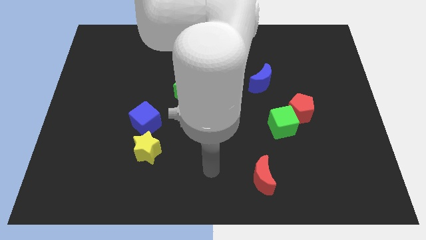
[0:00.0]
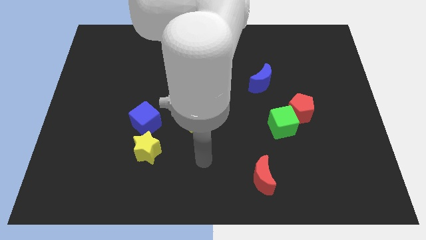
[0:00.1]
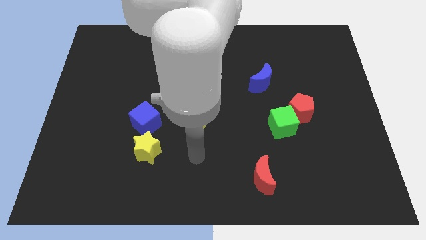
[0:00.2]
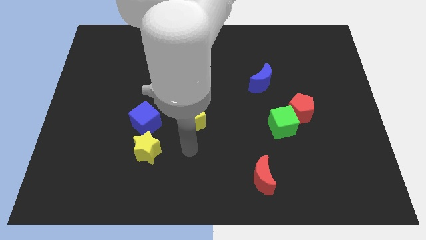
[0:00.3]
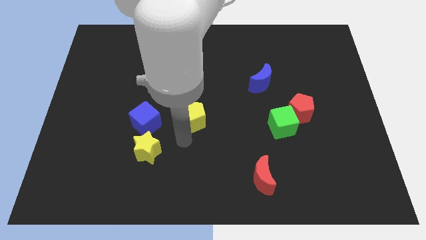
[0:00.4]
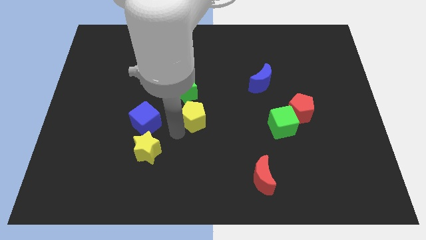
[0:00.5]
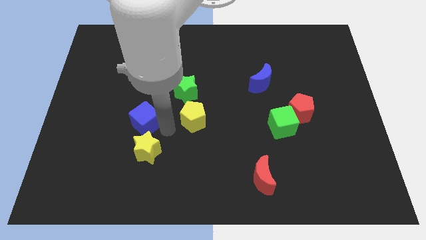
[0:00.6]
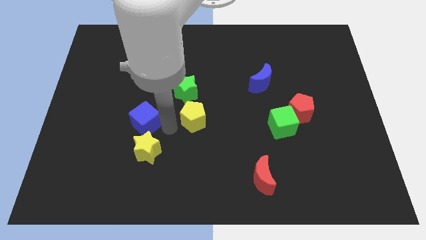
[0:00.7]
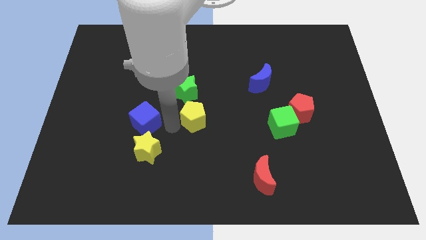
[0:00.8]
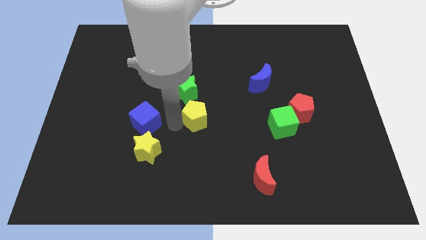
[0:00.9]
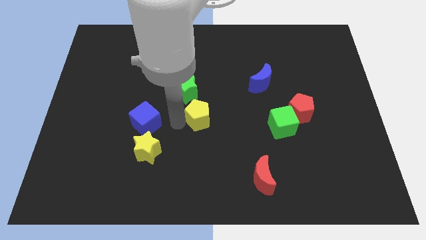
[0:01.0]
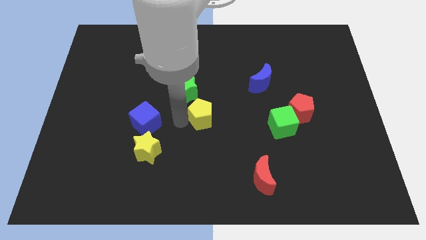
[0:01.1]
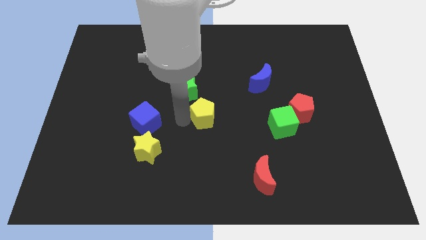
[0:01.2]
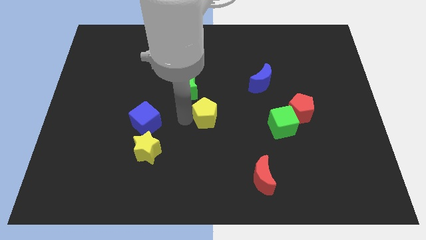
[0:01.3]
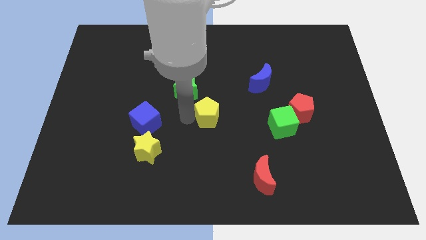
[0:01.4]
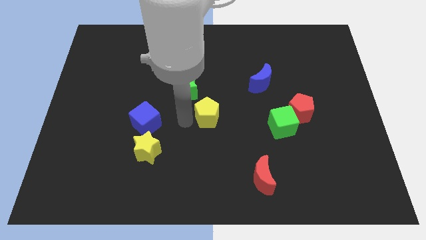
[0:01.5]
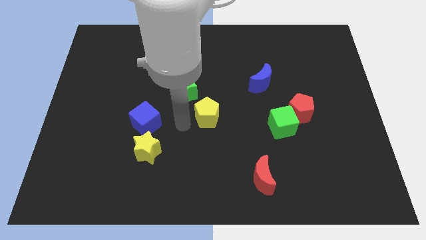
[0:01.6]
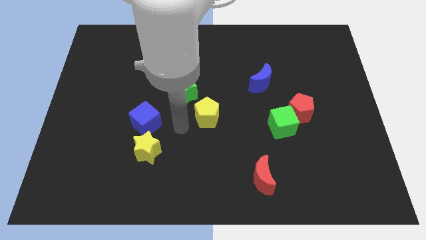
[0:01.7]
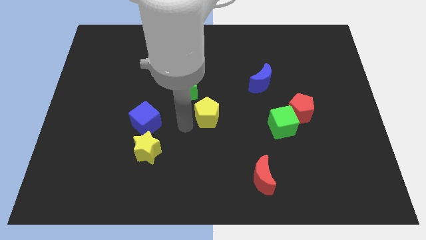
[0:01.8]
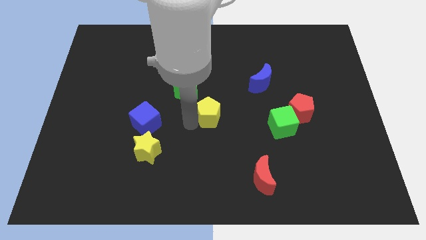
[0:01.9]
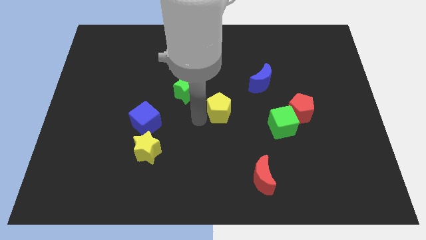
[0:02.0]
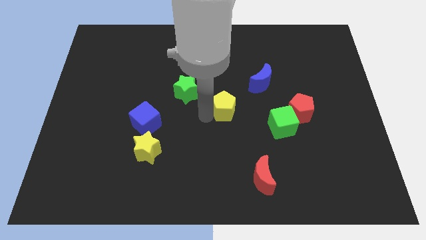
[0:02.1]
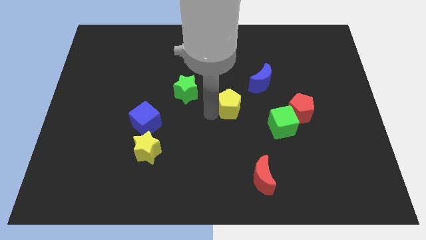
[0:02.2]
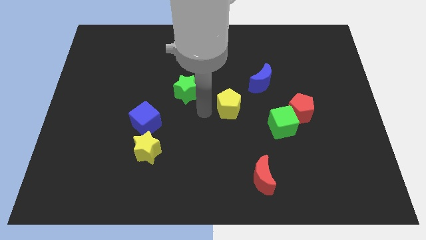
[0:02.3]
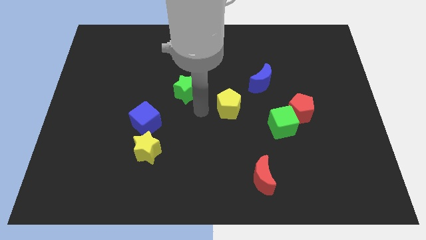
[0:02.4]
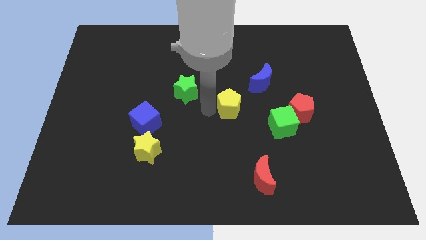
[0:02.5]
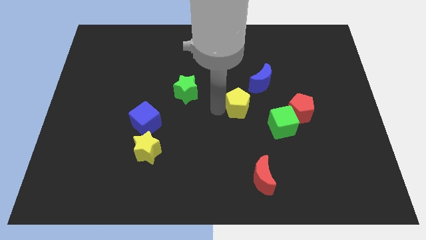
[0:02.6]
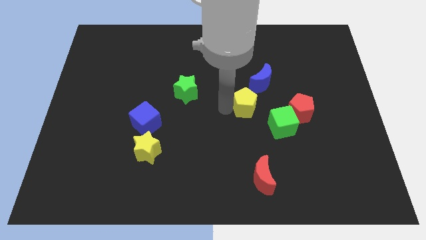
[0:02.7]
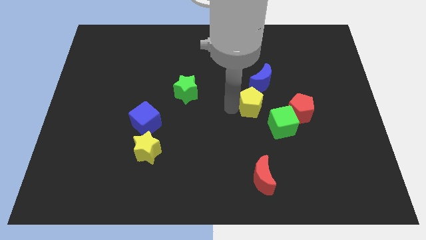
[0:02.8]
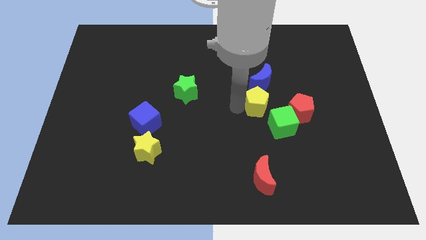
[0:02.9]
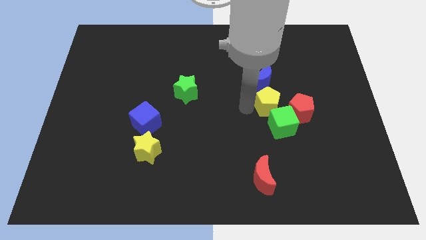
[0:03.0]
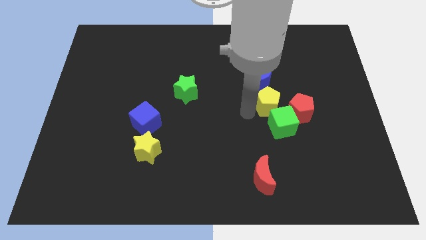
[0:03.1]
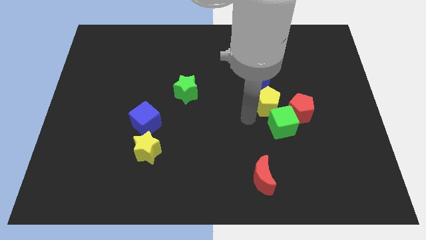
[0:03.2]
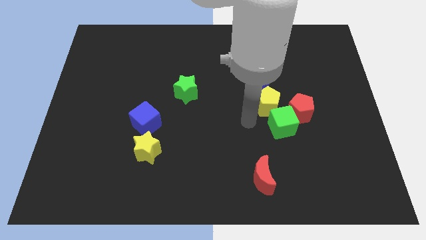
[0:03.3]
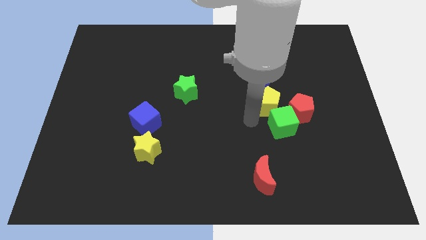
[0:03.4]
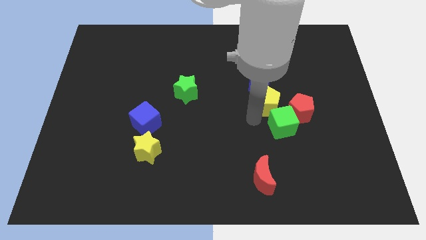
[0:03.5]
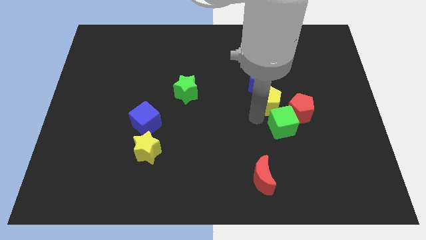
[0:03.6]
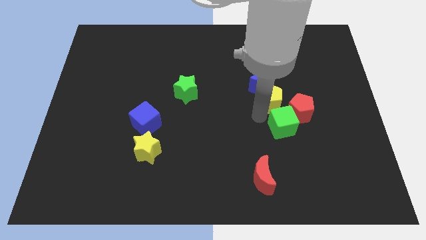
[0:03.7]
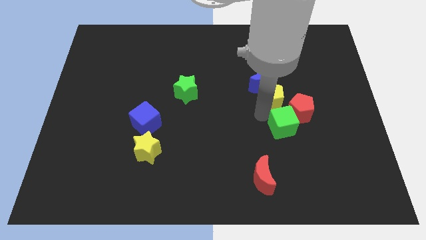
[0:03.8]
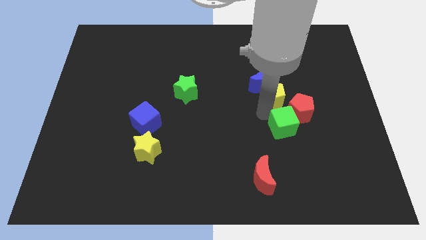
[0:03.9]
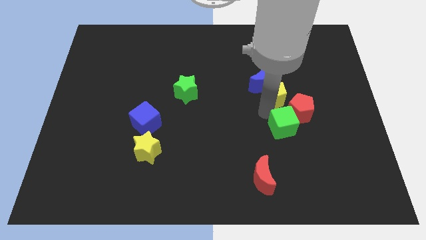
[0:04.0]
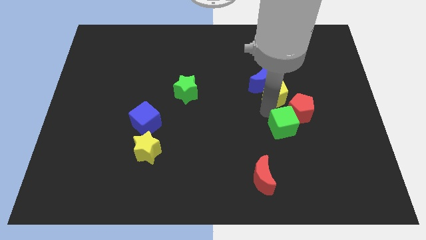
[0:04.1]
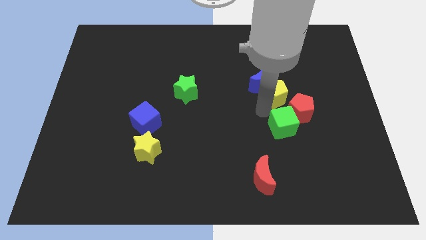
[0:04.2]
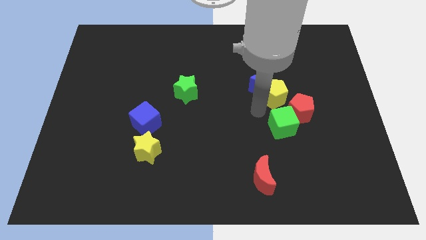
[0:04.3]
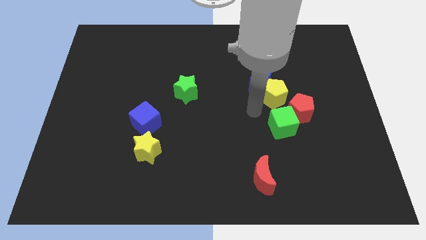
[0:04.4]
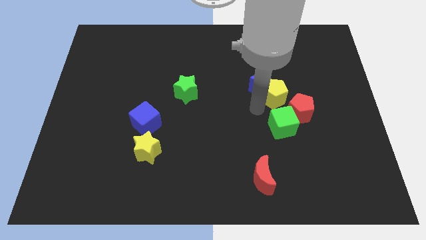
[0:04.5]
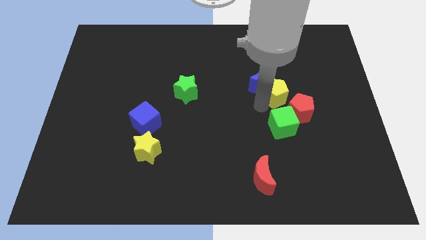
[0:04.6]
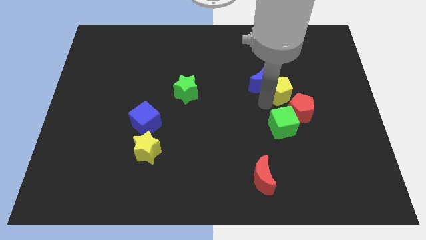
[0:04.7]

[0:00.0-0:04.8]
move the yellow pentagon above the red pentagon

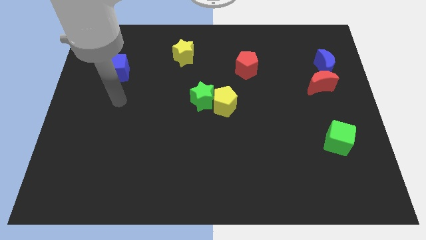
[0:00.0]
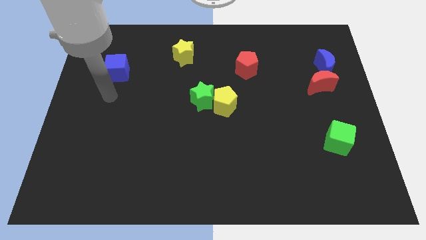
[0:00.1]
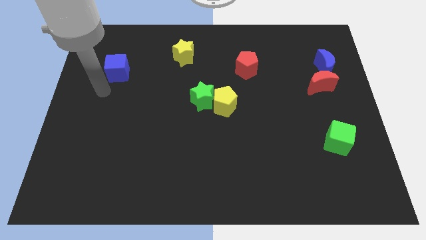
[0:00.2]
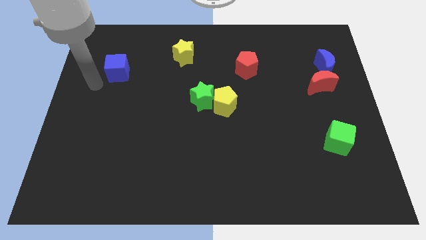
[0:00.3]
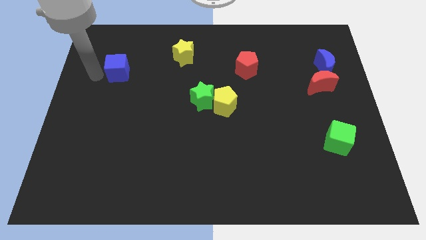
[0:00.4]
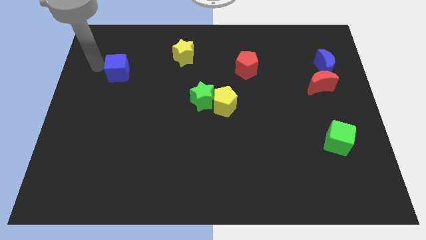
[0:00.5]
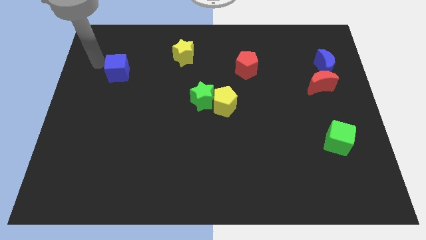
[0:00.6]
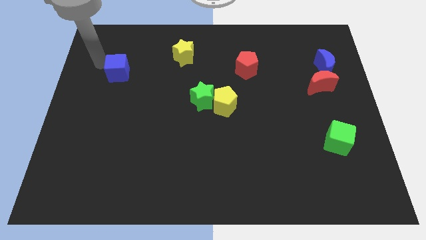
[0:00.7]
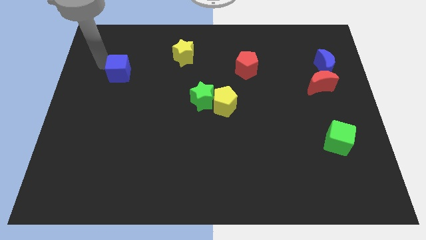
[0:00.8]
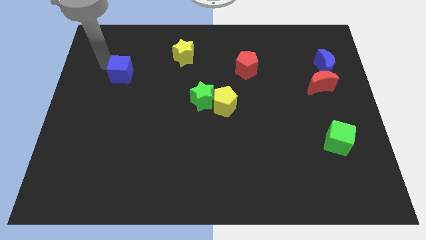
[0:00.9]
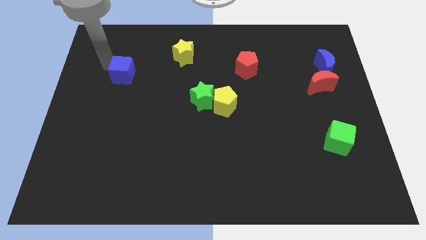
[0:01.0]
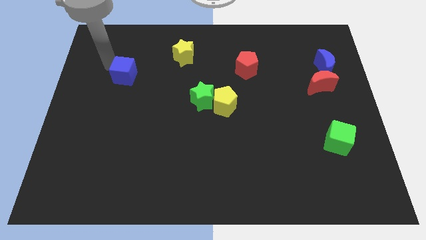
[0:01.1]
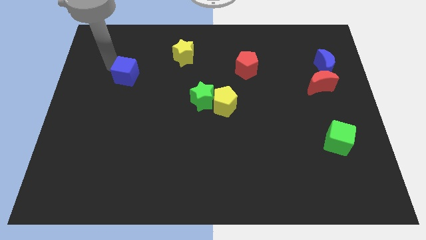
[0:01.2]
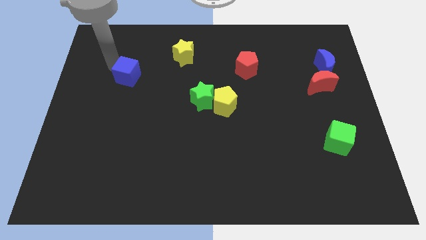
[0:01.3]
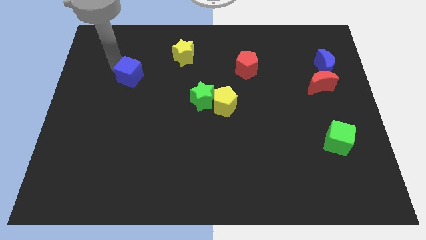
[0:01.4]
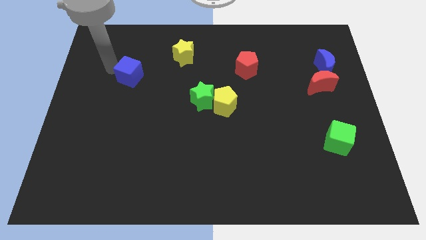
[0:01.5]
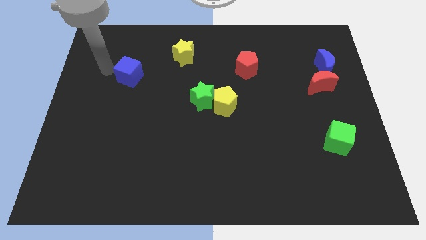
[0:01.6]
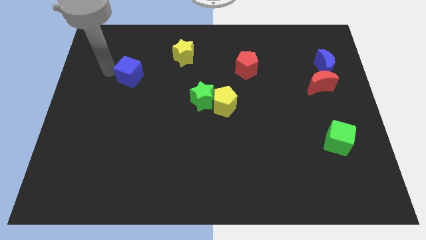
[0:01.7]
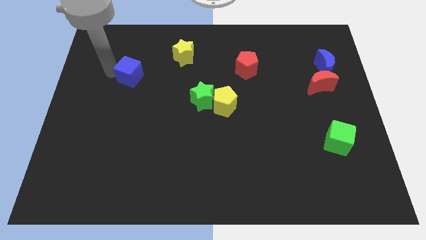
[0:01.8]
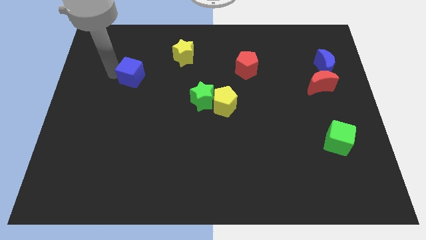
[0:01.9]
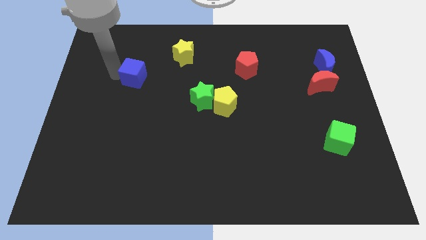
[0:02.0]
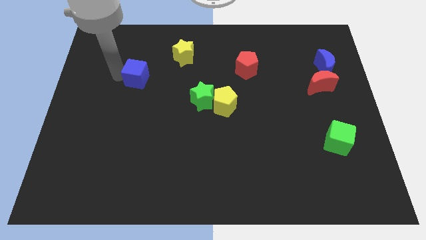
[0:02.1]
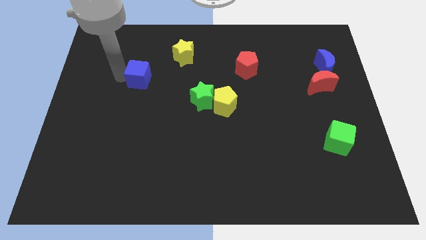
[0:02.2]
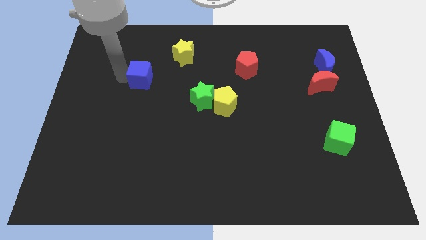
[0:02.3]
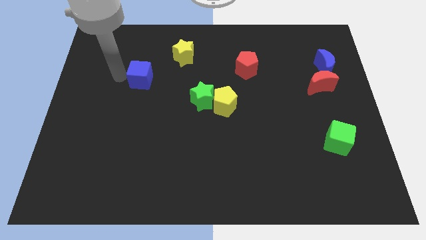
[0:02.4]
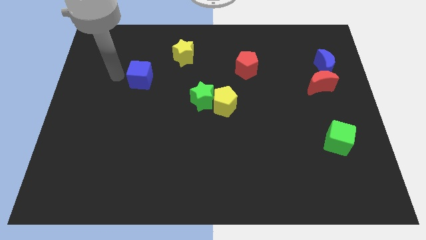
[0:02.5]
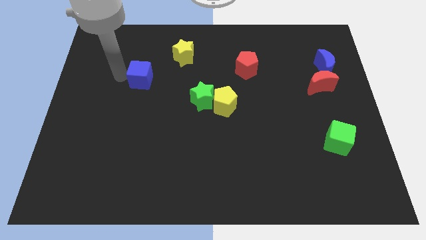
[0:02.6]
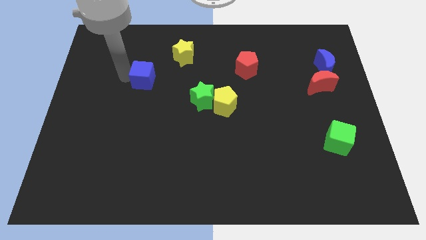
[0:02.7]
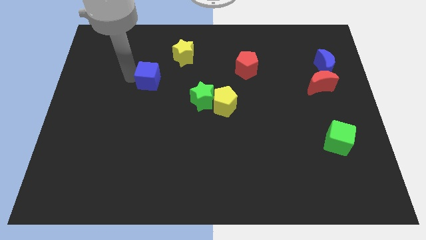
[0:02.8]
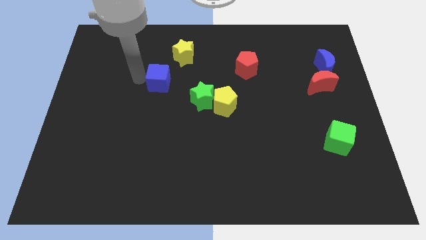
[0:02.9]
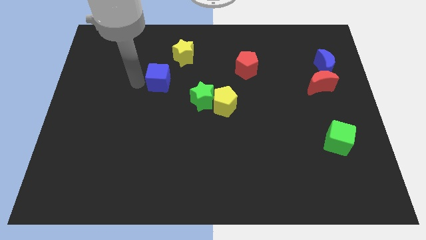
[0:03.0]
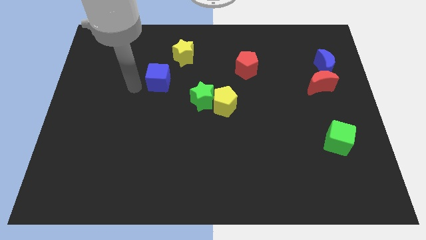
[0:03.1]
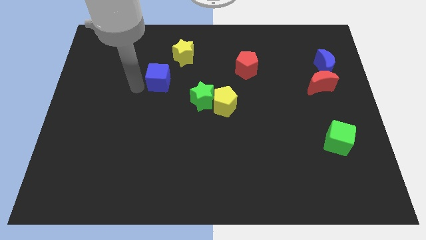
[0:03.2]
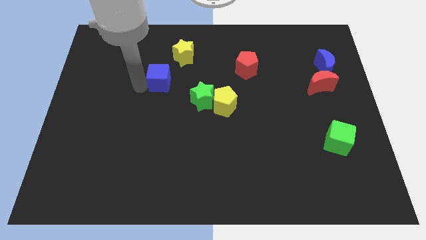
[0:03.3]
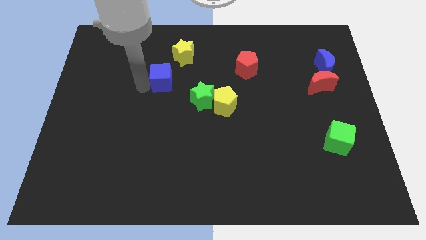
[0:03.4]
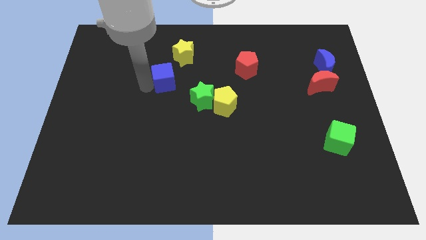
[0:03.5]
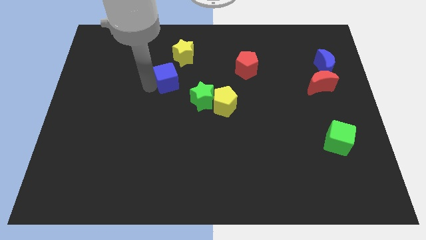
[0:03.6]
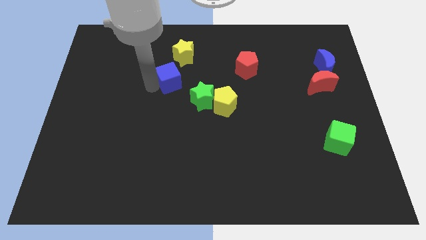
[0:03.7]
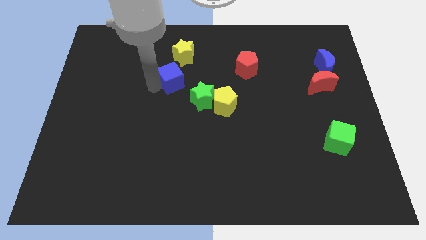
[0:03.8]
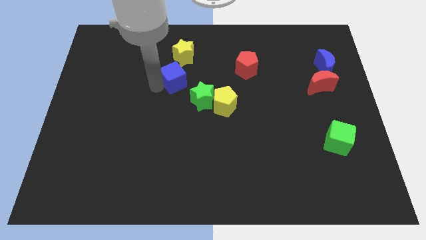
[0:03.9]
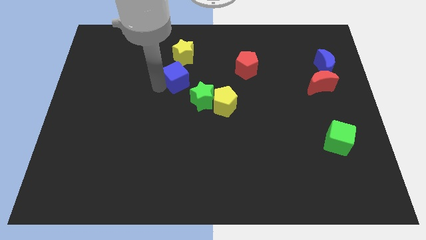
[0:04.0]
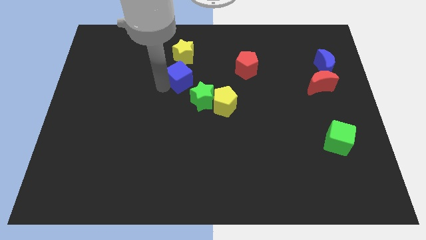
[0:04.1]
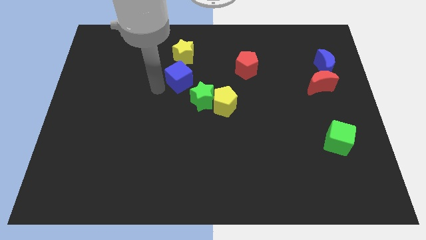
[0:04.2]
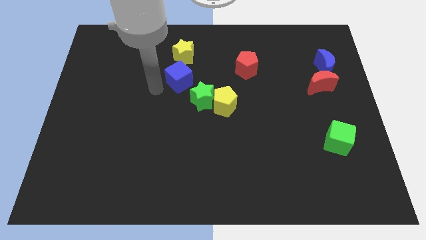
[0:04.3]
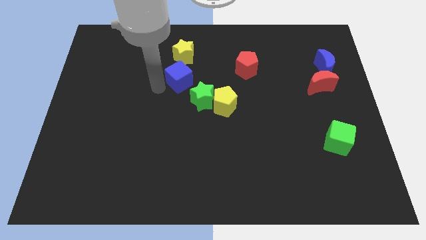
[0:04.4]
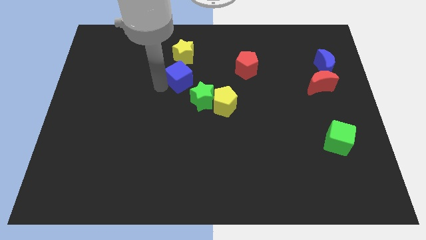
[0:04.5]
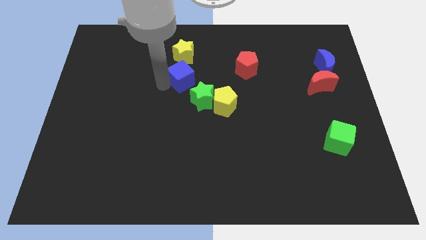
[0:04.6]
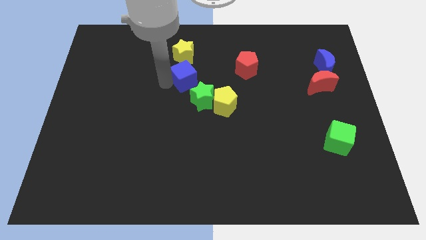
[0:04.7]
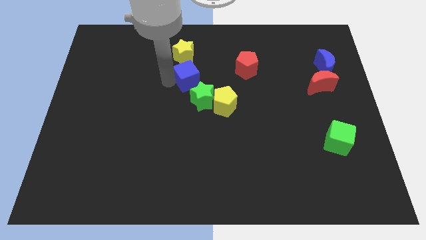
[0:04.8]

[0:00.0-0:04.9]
put the blue cube to the bottom right side of the yellow star
